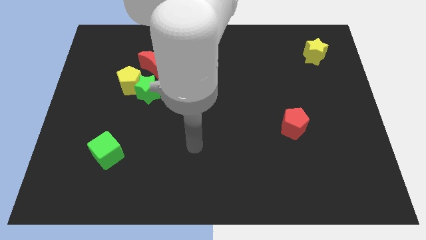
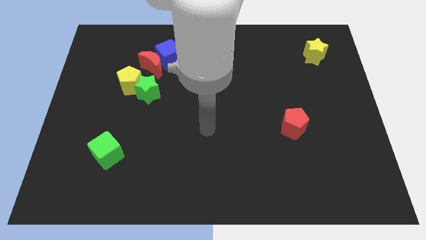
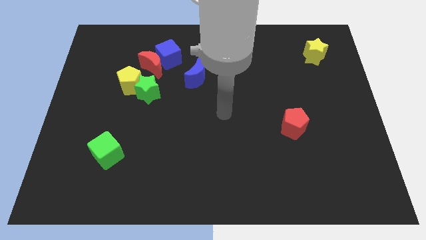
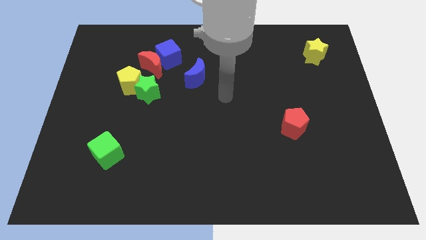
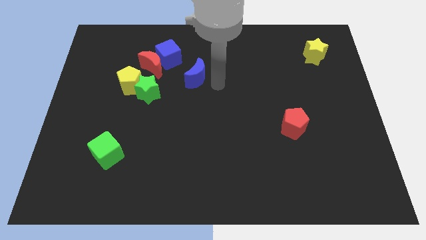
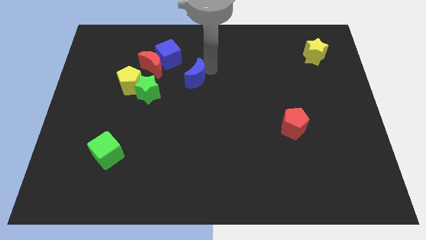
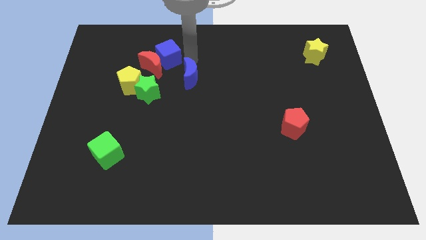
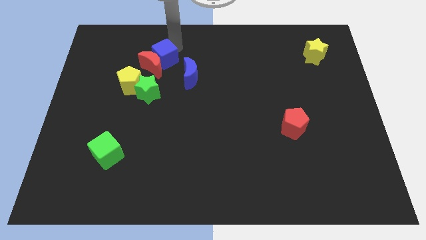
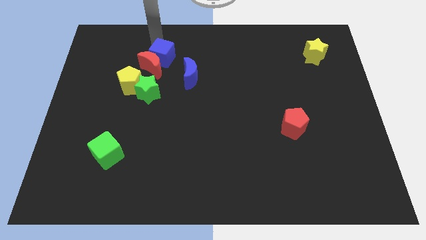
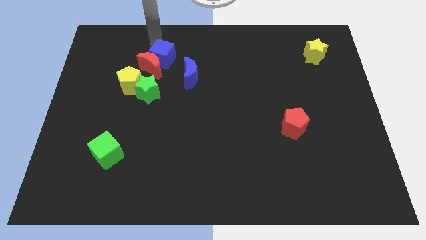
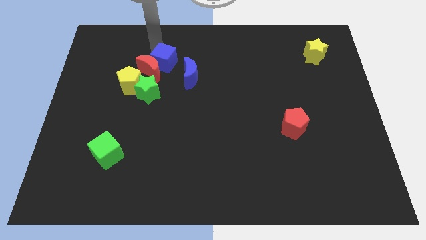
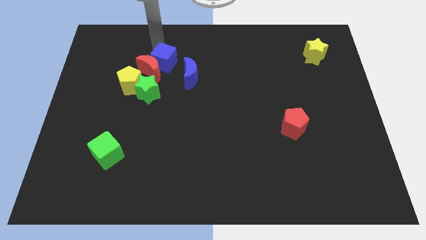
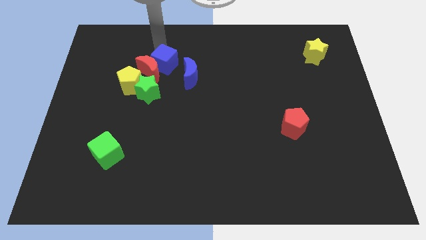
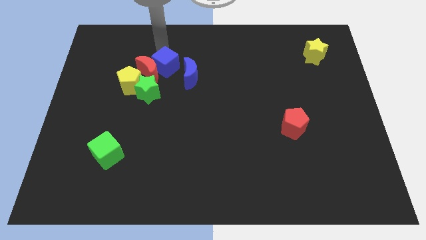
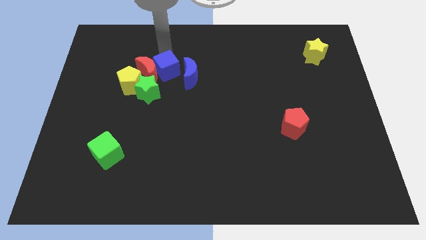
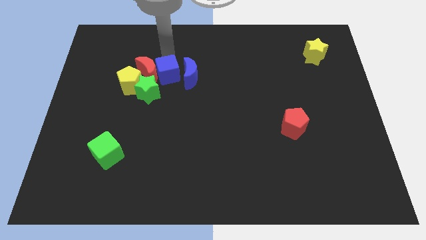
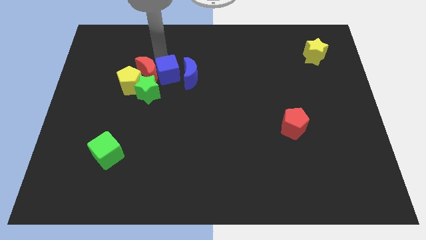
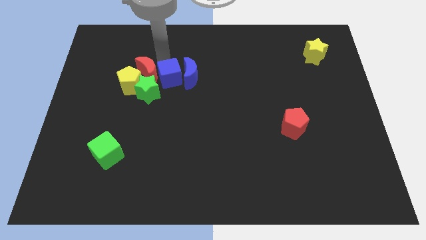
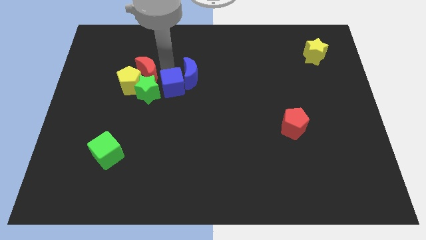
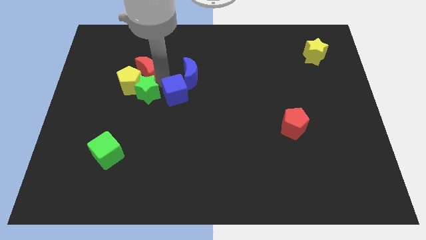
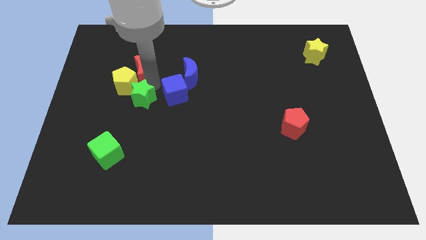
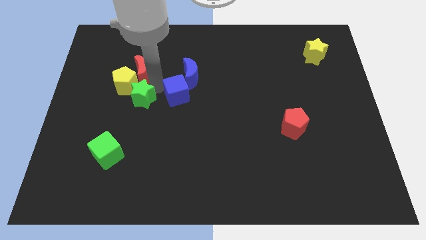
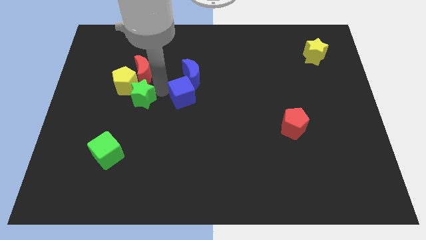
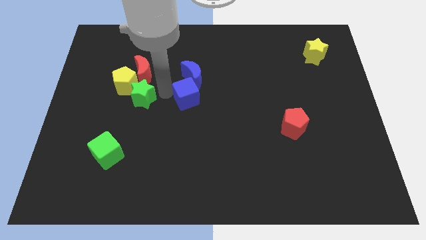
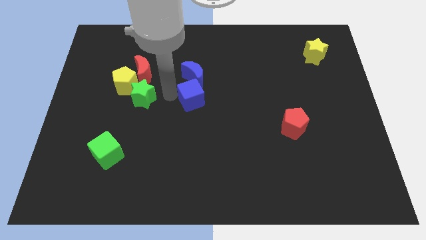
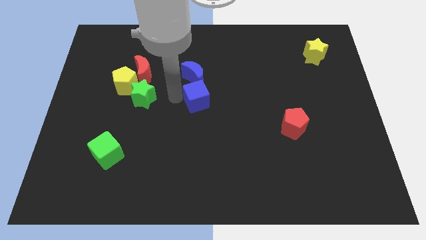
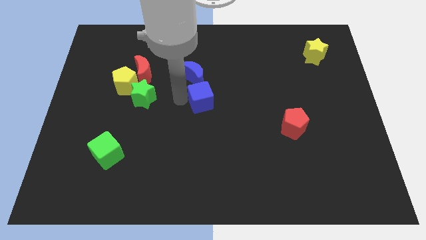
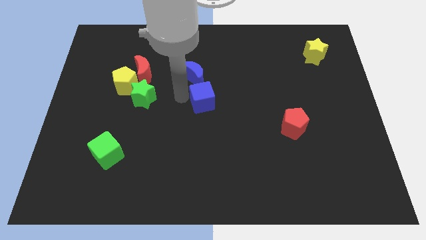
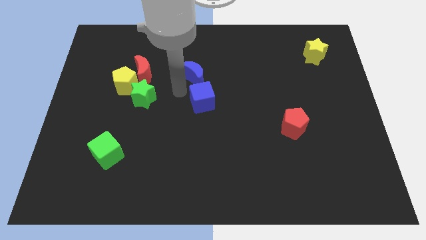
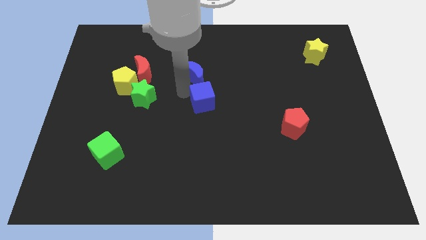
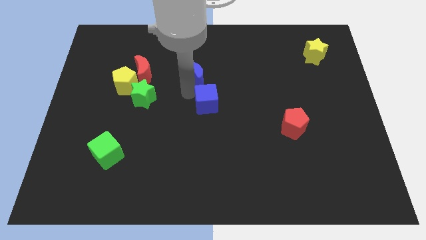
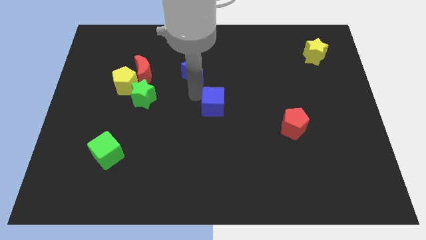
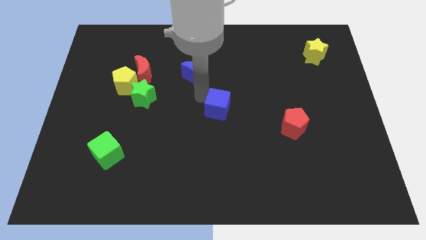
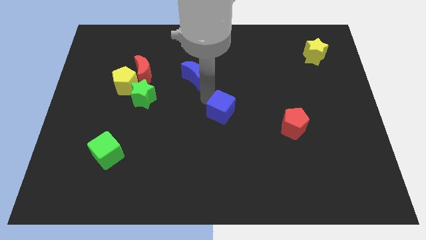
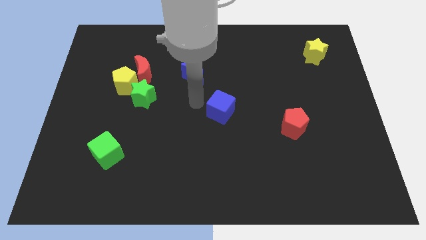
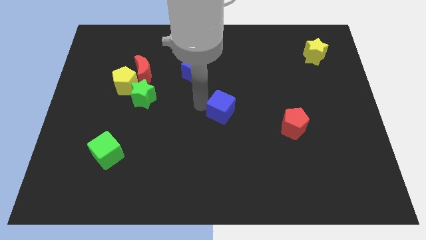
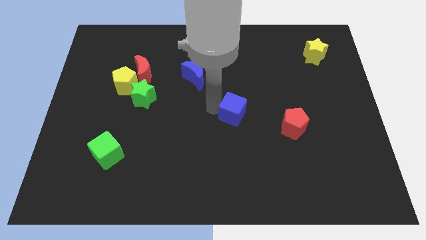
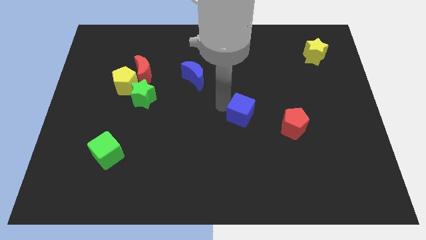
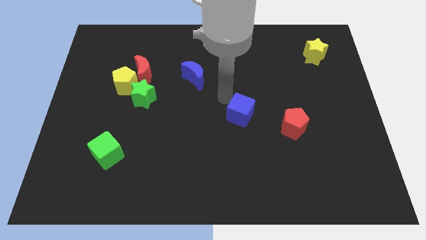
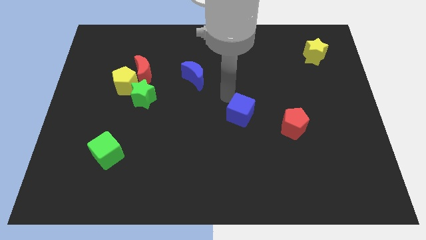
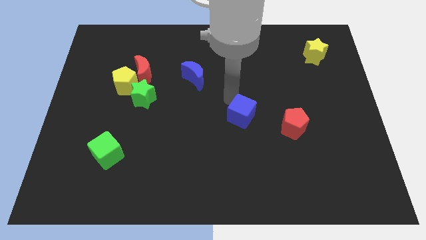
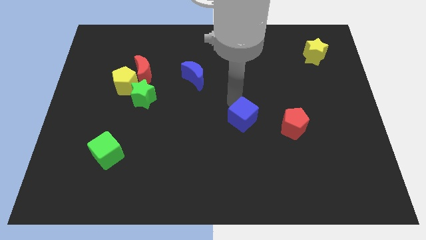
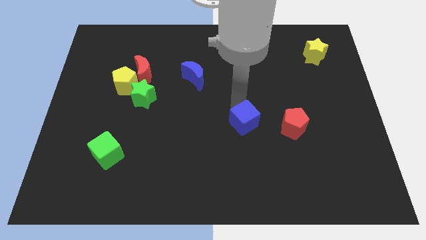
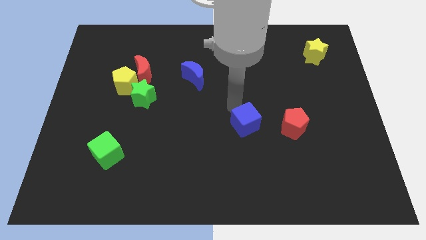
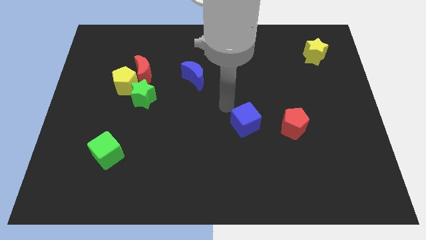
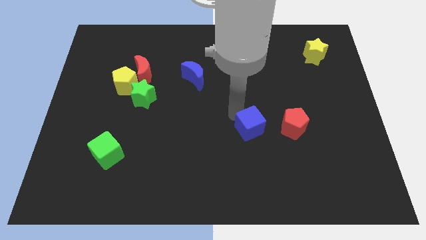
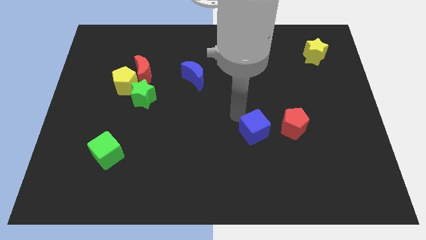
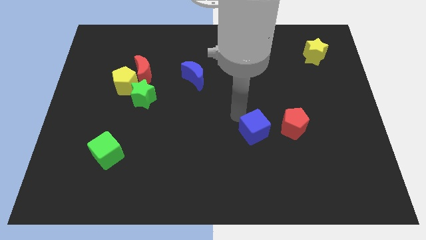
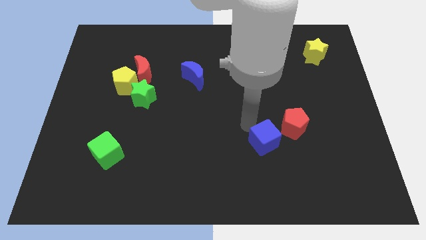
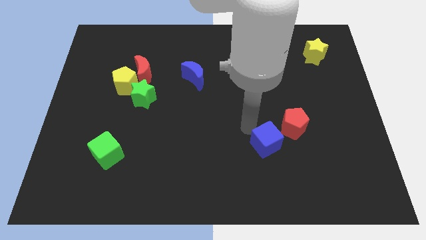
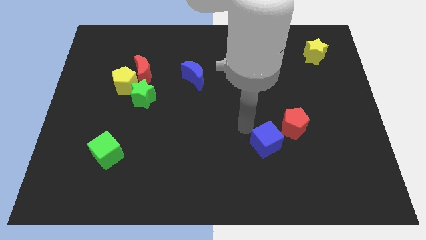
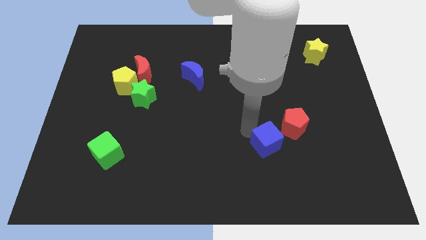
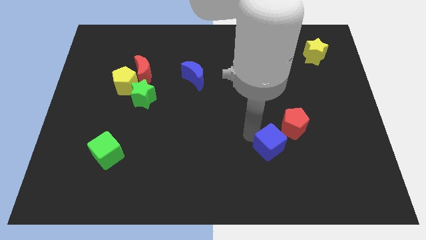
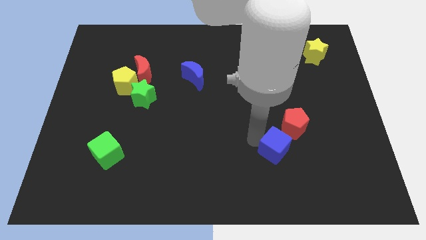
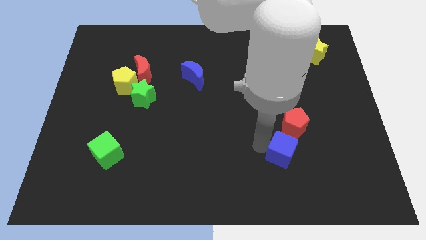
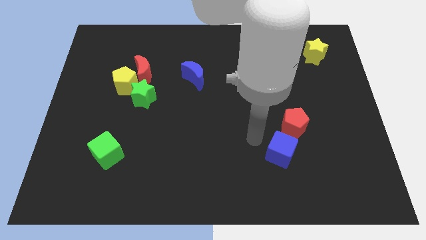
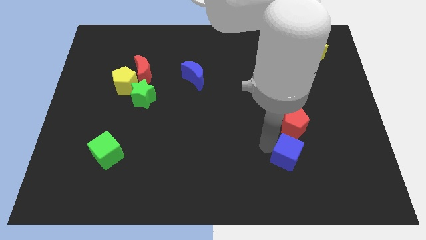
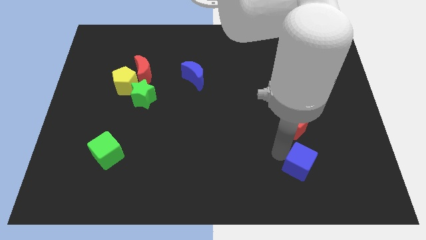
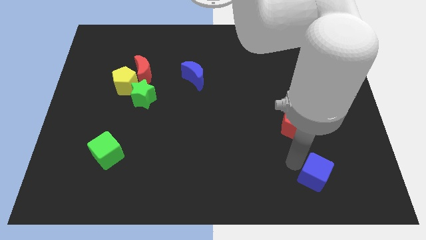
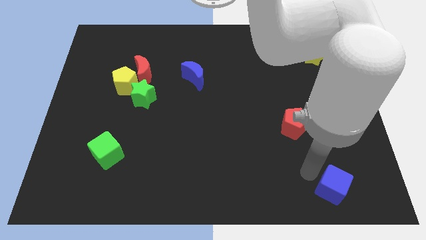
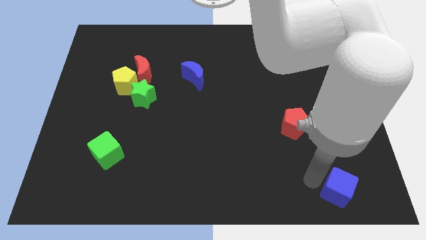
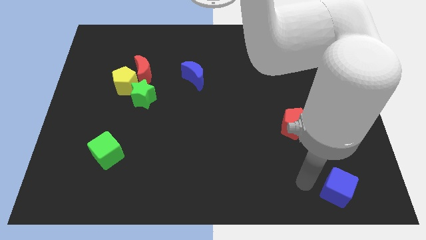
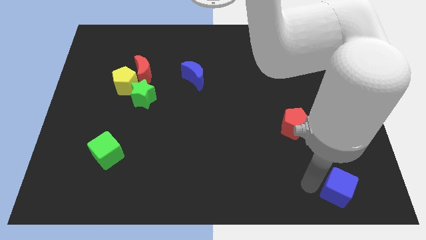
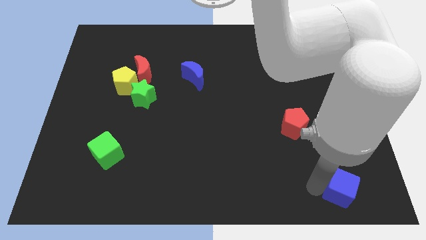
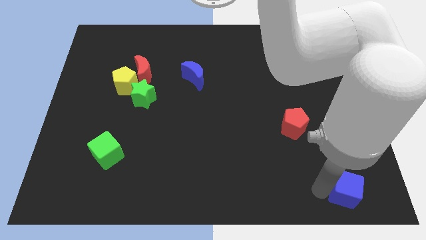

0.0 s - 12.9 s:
slide the blue cube to the bottom right of the board

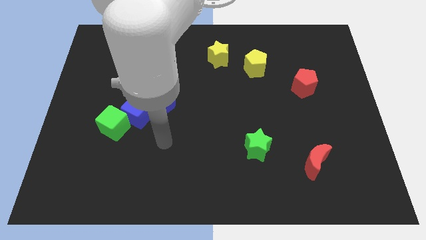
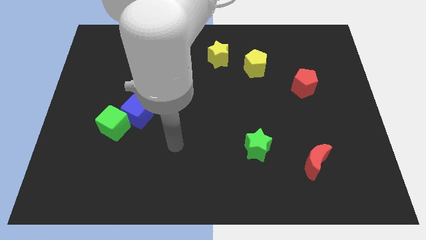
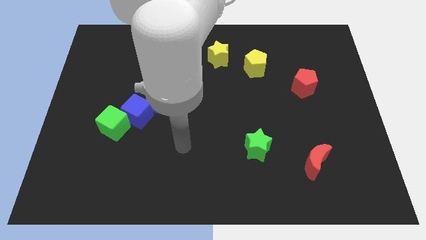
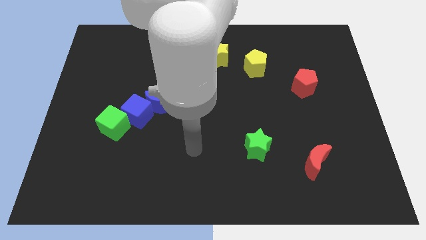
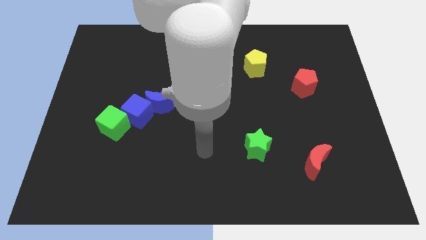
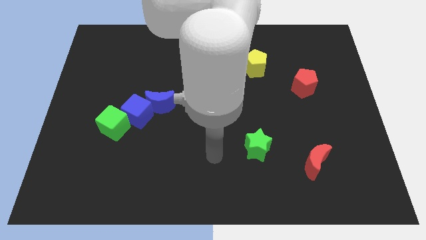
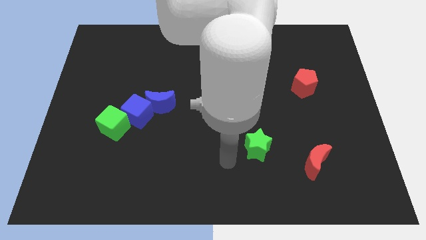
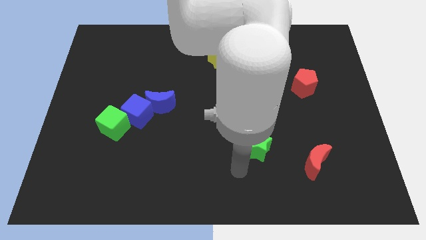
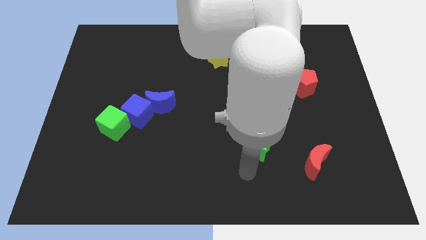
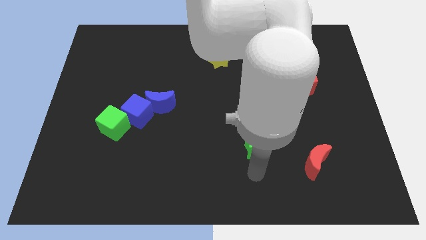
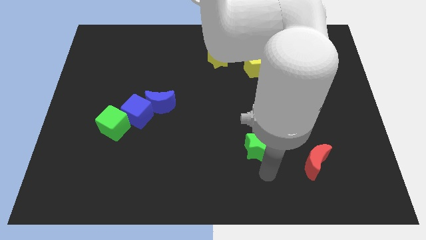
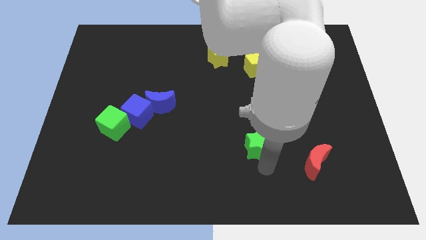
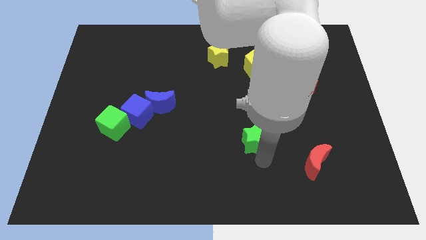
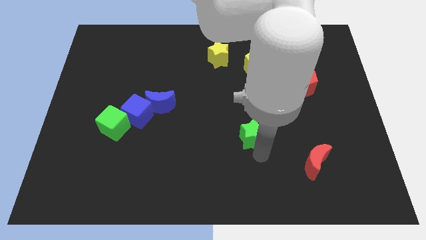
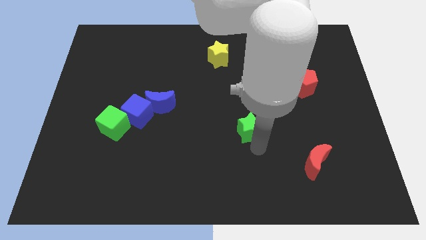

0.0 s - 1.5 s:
push the green star to the center
